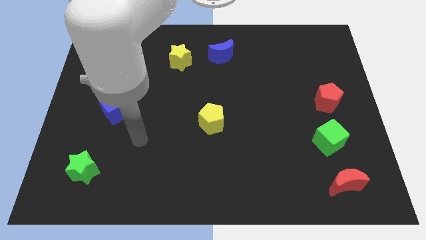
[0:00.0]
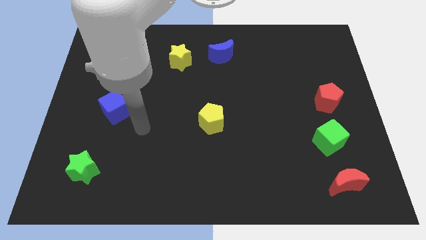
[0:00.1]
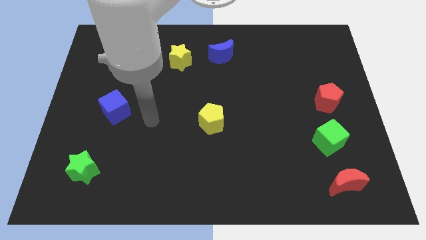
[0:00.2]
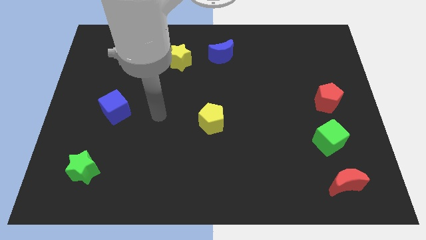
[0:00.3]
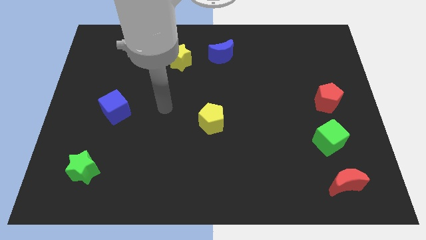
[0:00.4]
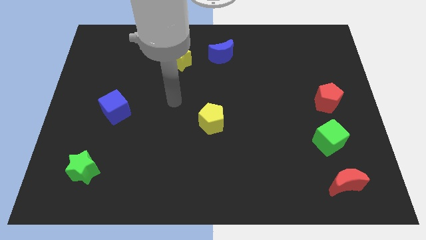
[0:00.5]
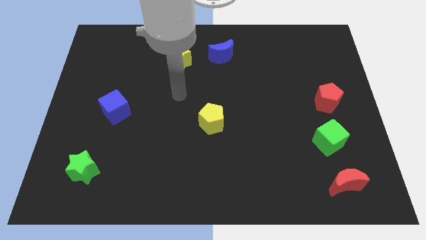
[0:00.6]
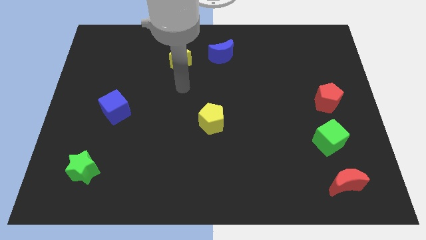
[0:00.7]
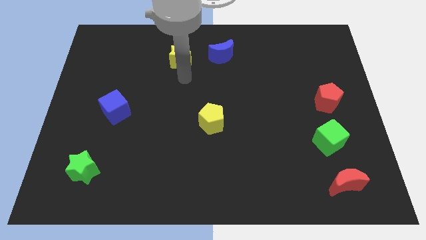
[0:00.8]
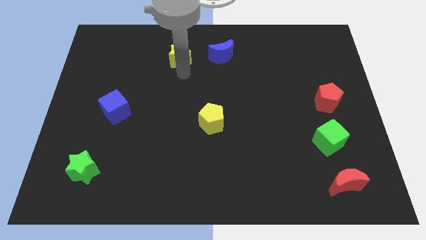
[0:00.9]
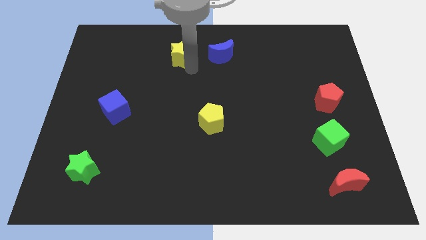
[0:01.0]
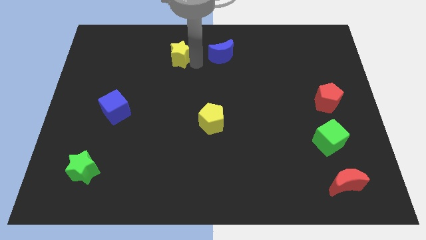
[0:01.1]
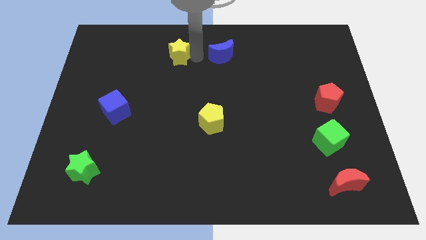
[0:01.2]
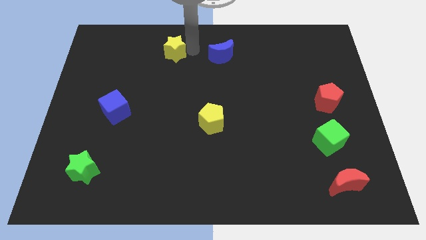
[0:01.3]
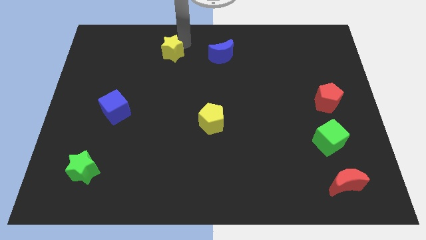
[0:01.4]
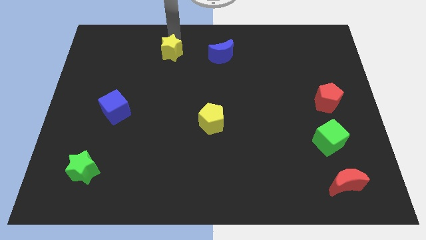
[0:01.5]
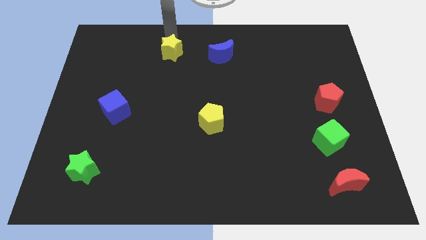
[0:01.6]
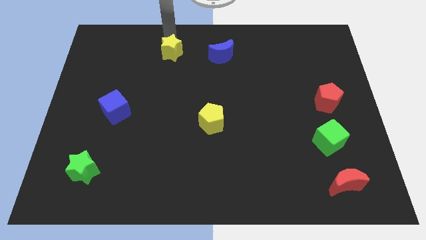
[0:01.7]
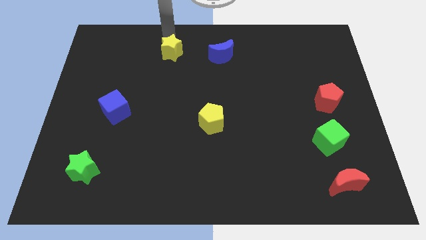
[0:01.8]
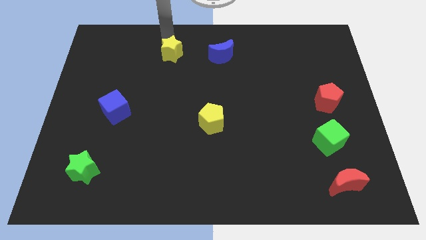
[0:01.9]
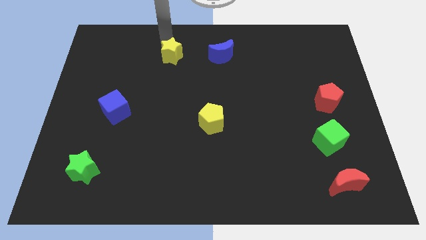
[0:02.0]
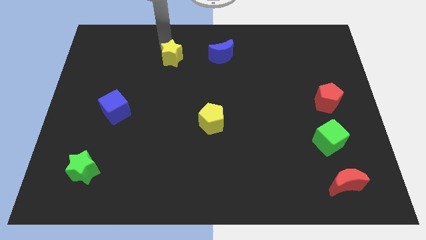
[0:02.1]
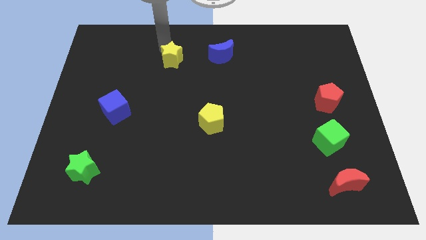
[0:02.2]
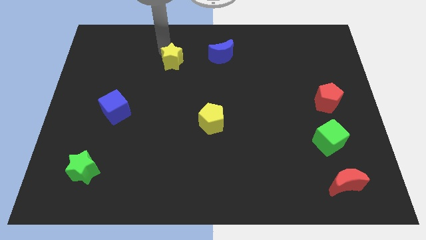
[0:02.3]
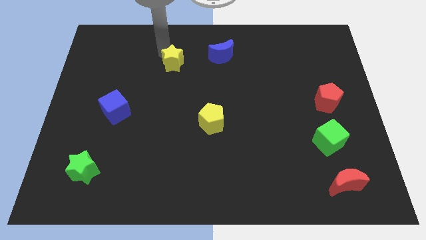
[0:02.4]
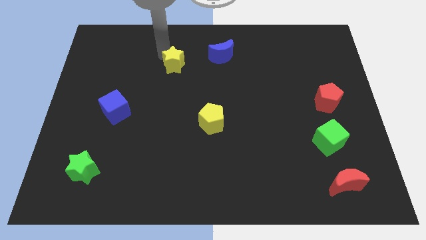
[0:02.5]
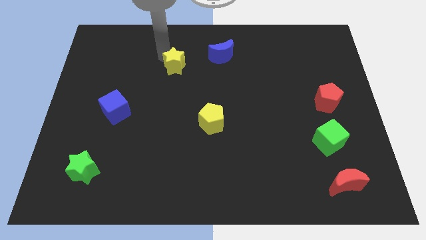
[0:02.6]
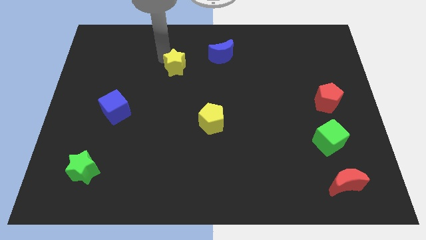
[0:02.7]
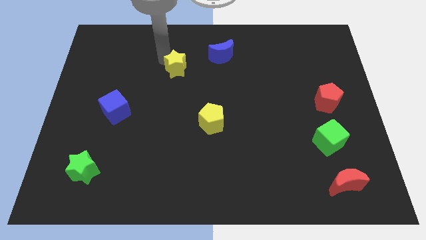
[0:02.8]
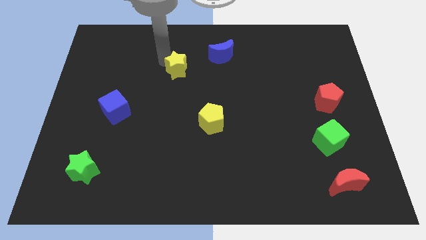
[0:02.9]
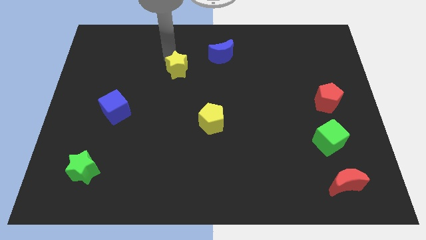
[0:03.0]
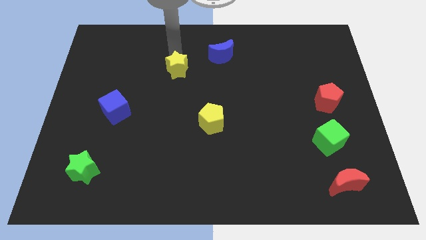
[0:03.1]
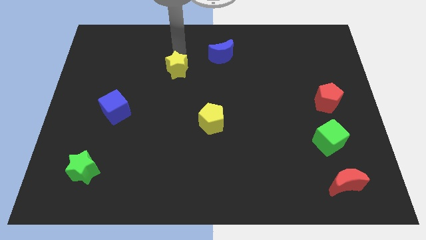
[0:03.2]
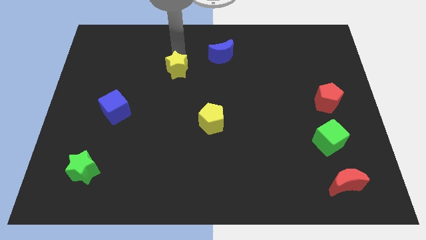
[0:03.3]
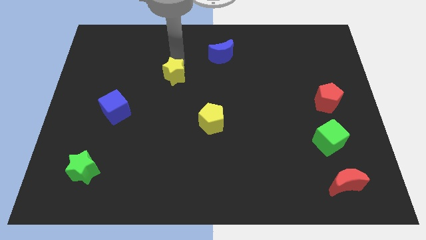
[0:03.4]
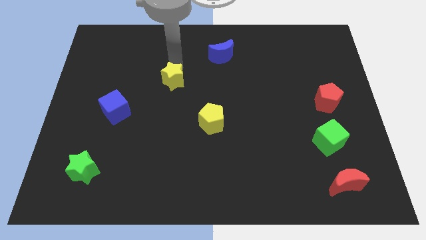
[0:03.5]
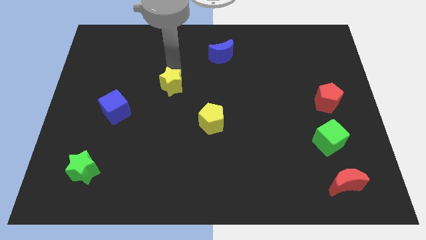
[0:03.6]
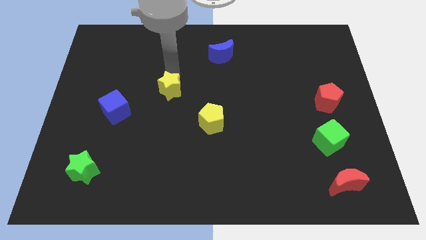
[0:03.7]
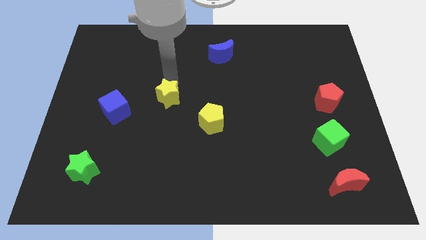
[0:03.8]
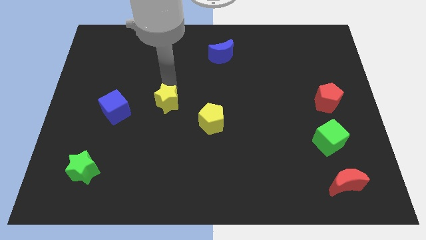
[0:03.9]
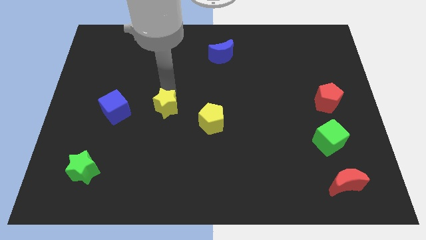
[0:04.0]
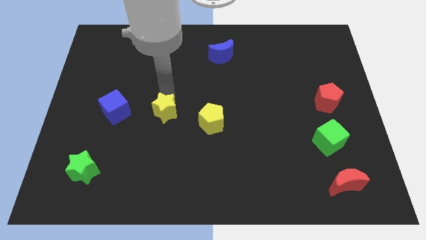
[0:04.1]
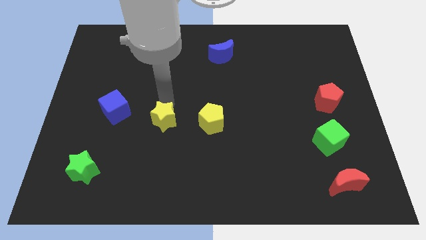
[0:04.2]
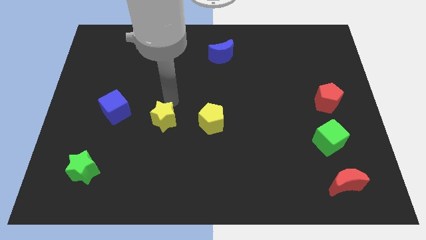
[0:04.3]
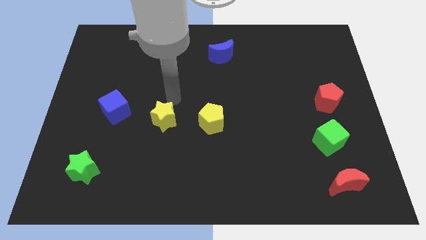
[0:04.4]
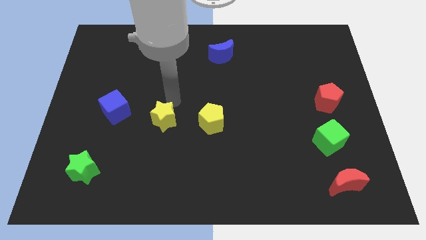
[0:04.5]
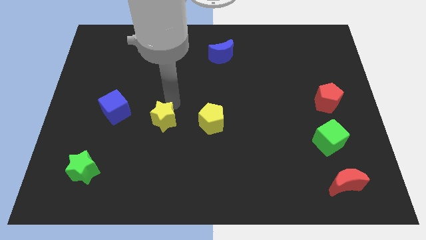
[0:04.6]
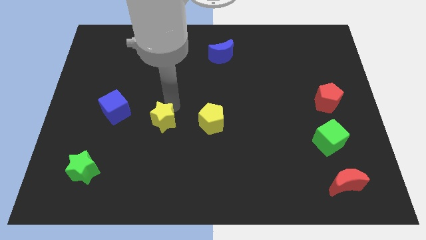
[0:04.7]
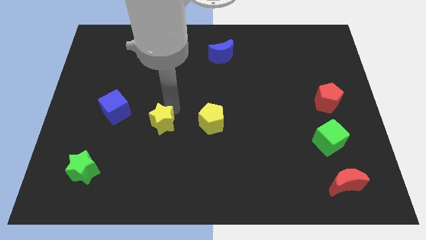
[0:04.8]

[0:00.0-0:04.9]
slide the yellow star down

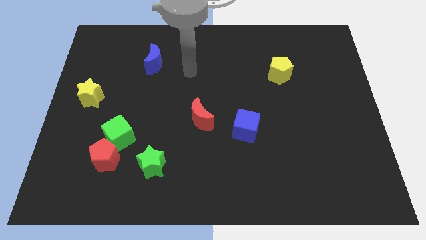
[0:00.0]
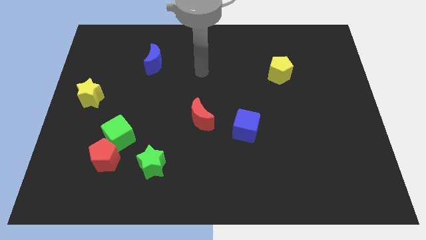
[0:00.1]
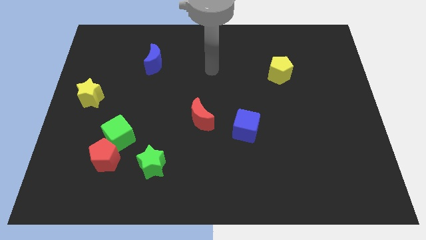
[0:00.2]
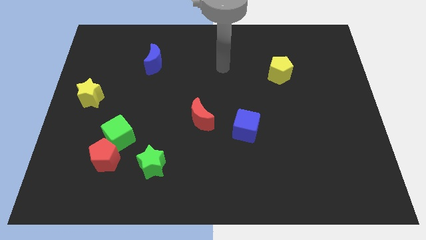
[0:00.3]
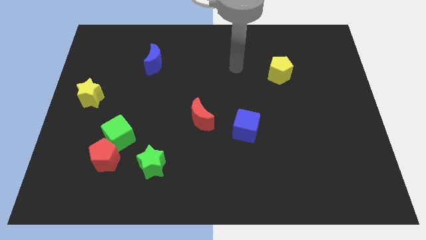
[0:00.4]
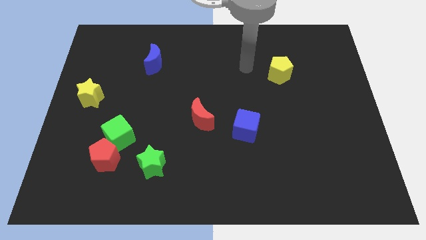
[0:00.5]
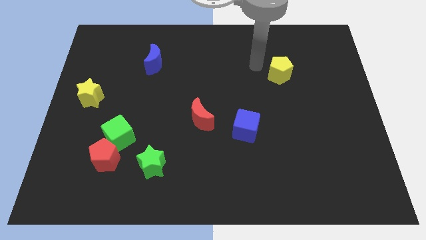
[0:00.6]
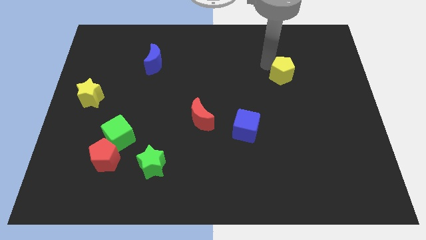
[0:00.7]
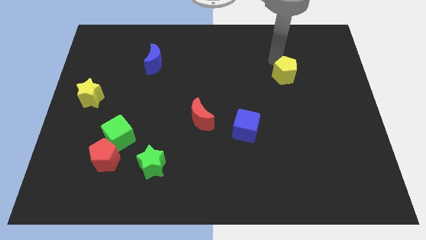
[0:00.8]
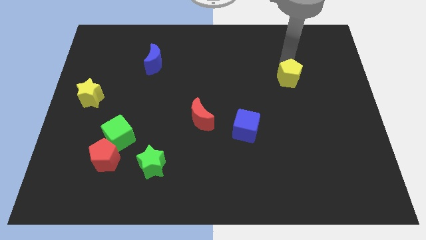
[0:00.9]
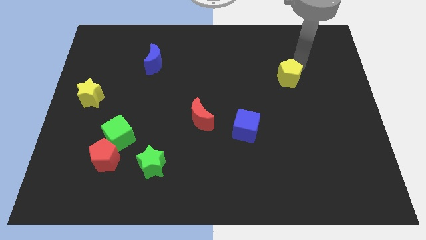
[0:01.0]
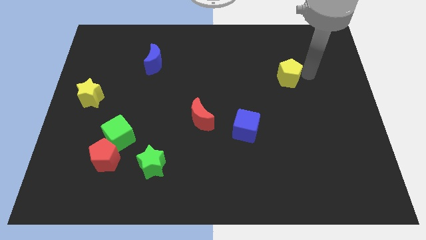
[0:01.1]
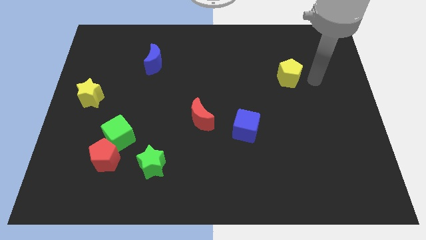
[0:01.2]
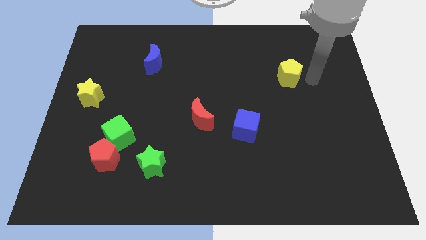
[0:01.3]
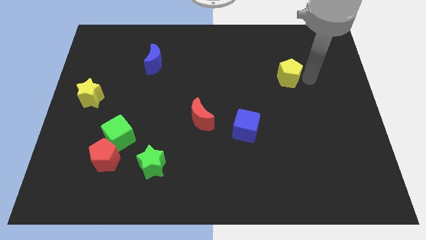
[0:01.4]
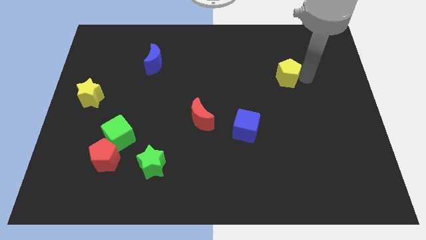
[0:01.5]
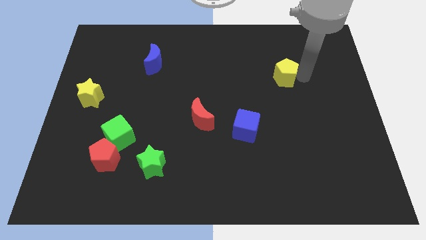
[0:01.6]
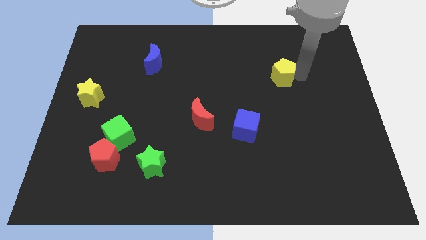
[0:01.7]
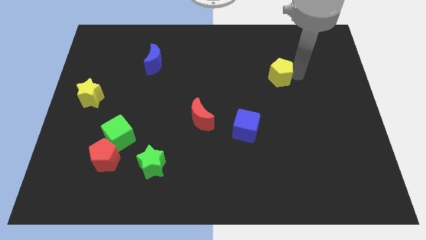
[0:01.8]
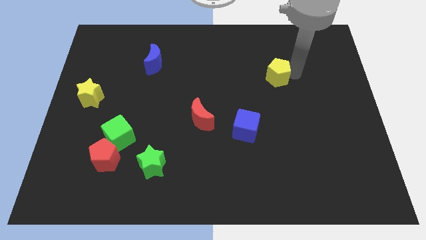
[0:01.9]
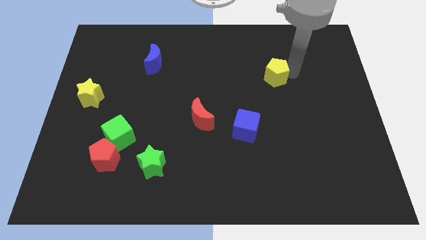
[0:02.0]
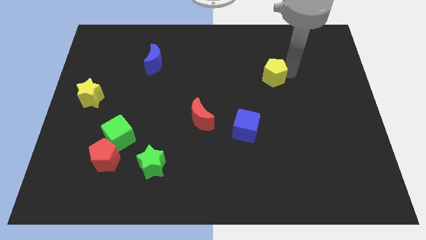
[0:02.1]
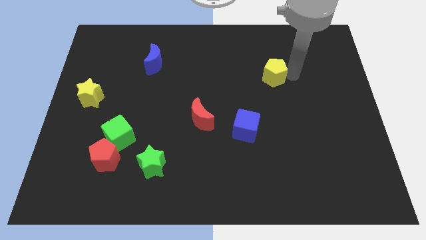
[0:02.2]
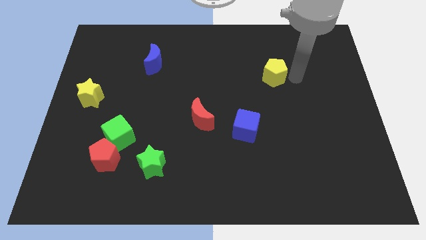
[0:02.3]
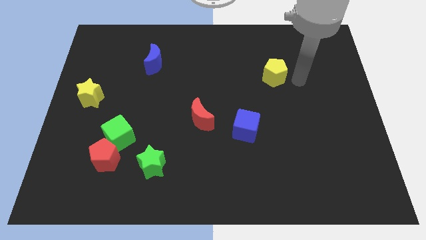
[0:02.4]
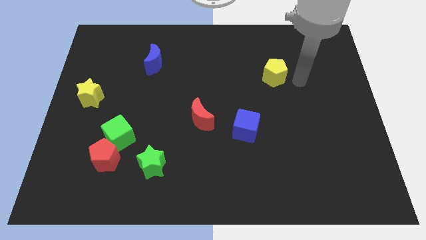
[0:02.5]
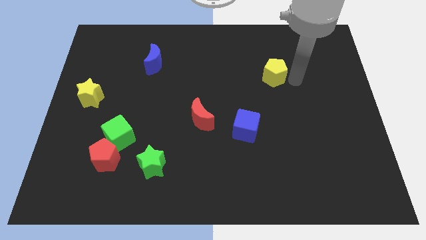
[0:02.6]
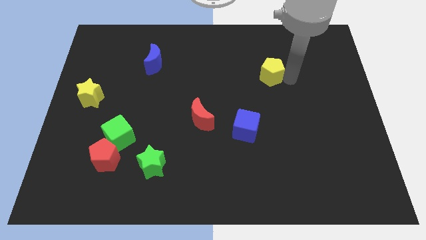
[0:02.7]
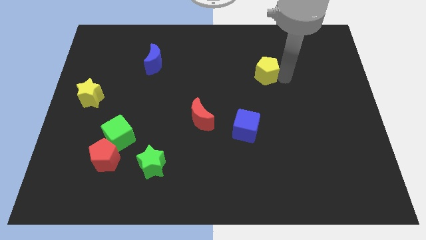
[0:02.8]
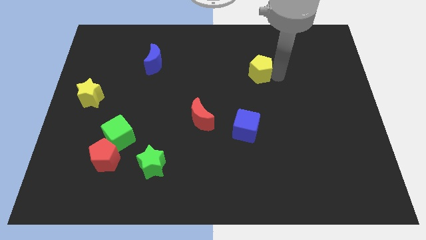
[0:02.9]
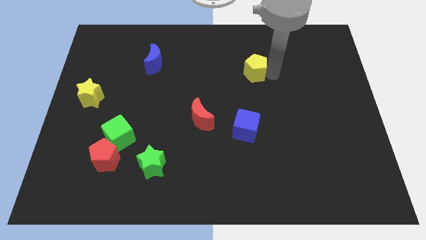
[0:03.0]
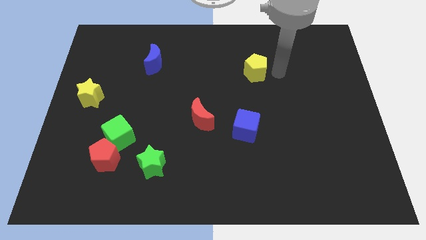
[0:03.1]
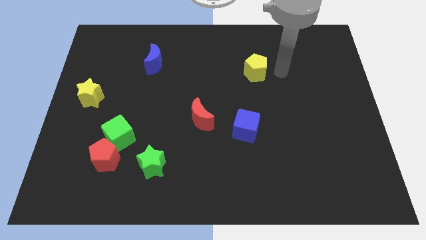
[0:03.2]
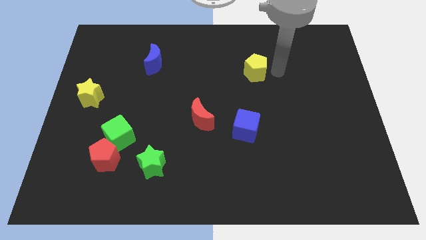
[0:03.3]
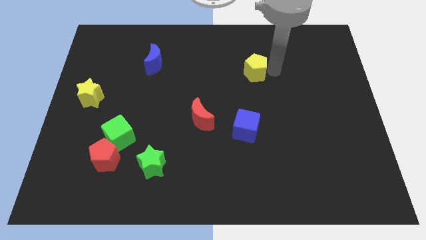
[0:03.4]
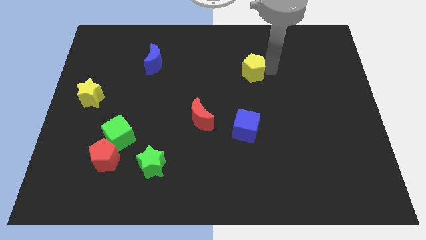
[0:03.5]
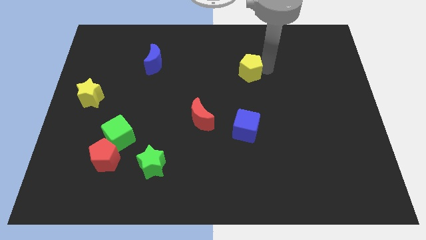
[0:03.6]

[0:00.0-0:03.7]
push the yellow pentagon to the left a little
